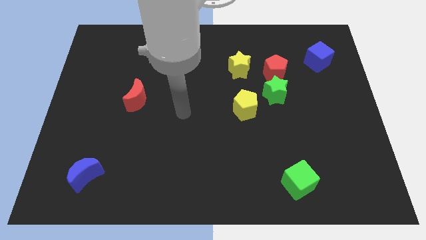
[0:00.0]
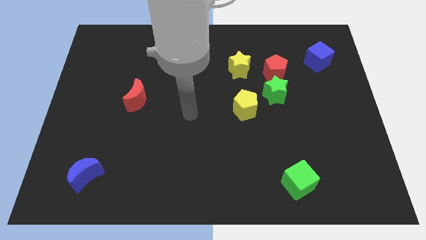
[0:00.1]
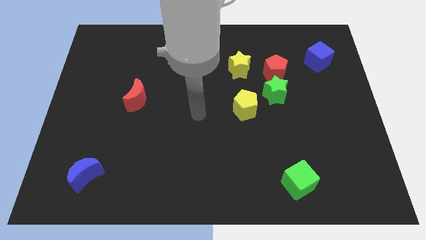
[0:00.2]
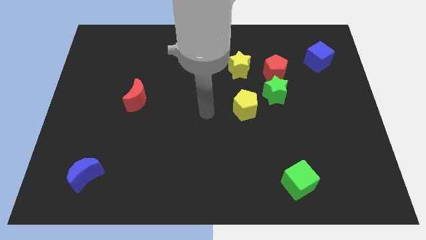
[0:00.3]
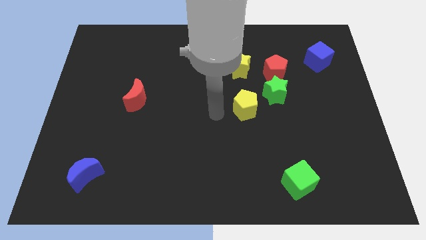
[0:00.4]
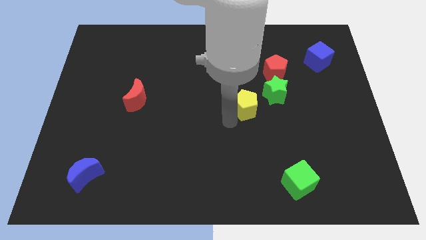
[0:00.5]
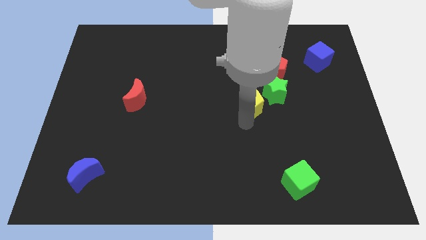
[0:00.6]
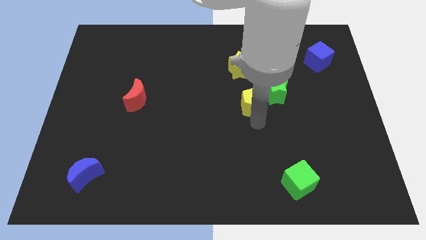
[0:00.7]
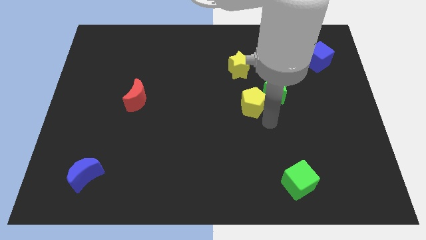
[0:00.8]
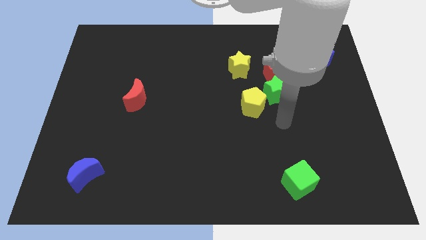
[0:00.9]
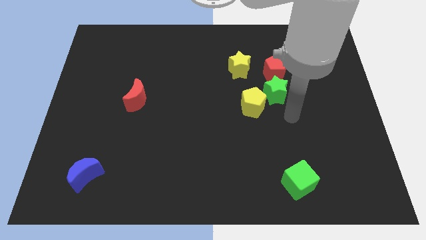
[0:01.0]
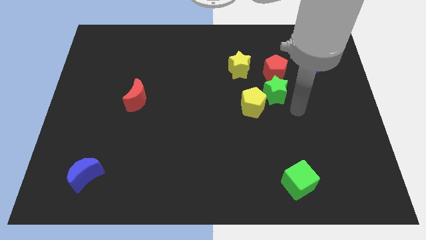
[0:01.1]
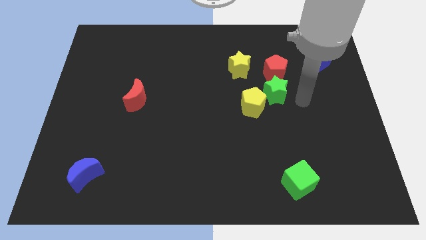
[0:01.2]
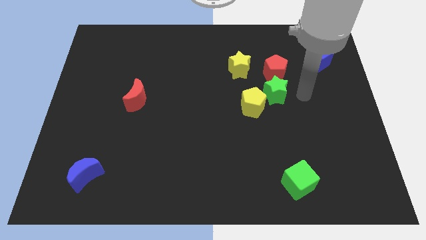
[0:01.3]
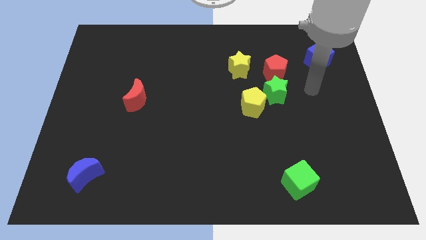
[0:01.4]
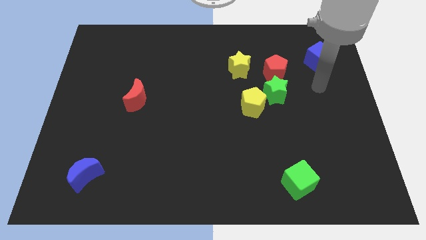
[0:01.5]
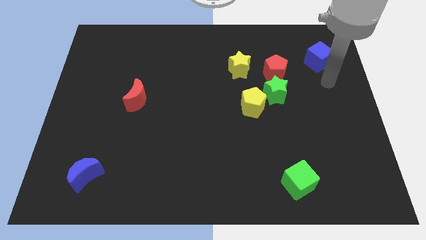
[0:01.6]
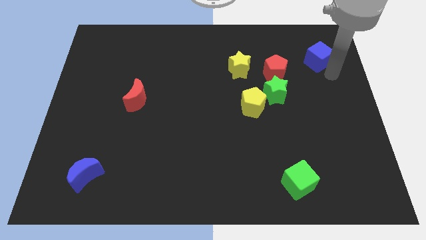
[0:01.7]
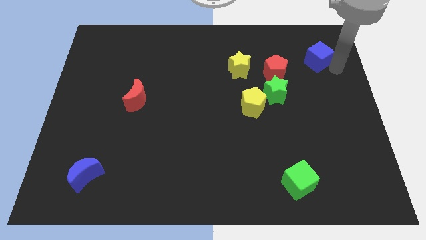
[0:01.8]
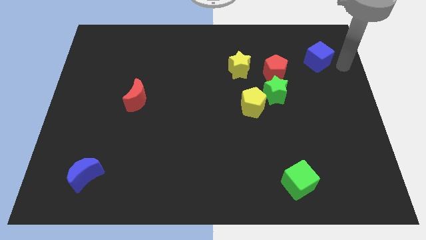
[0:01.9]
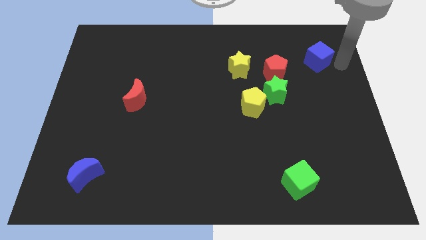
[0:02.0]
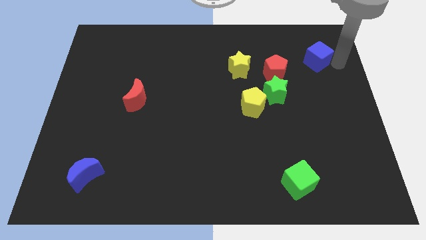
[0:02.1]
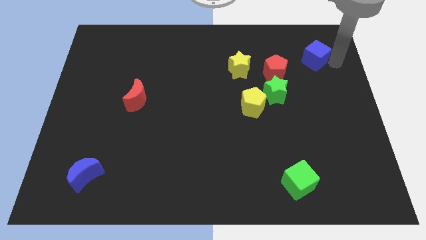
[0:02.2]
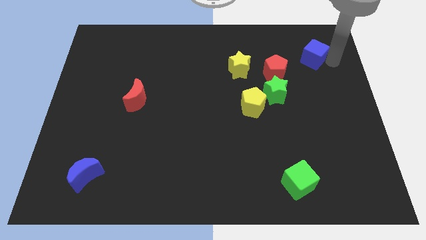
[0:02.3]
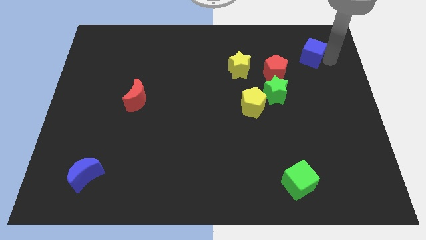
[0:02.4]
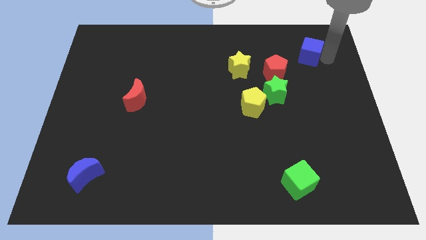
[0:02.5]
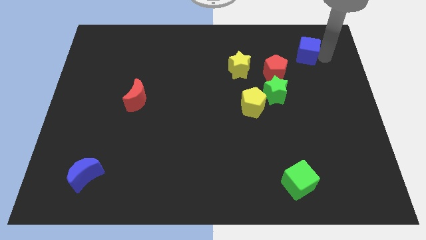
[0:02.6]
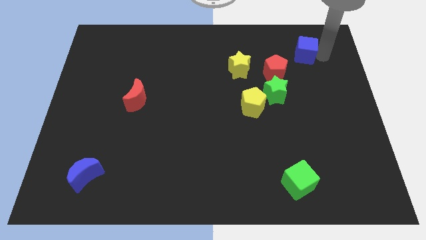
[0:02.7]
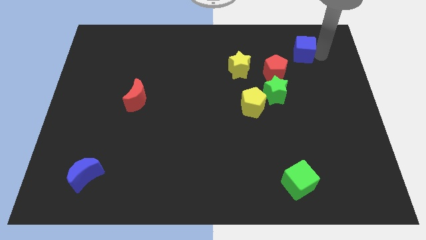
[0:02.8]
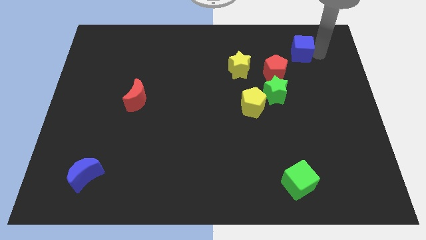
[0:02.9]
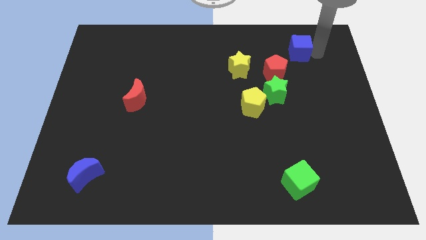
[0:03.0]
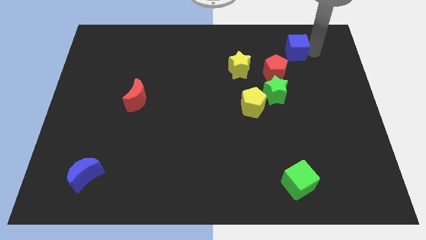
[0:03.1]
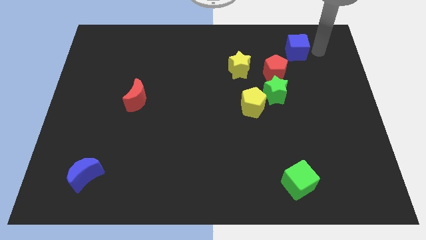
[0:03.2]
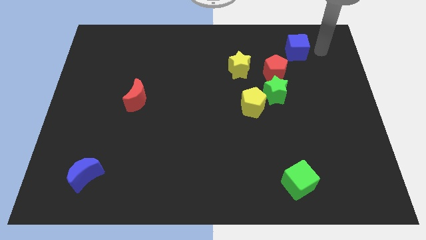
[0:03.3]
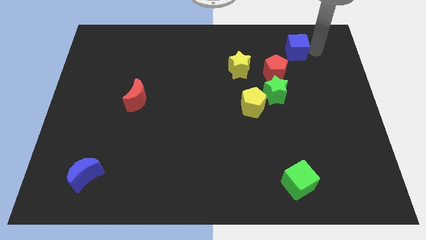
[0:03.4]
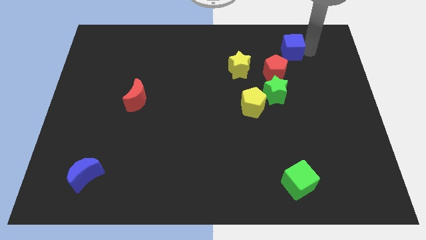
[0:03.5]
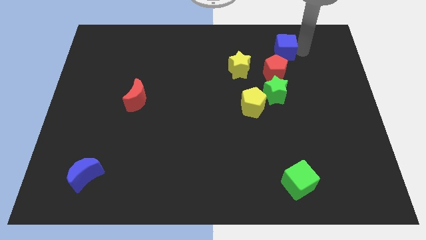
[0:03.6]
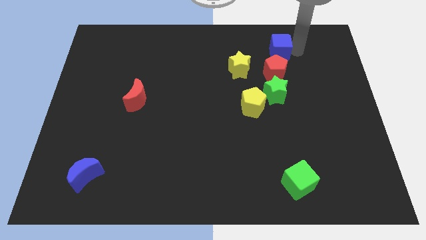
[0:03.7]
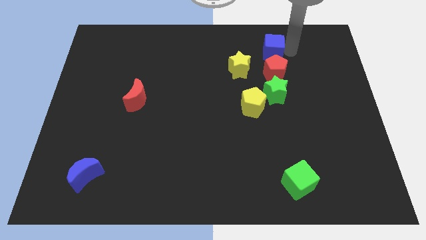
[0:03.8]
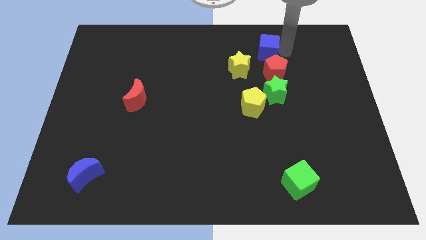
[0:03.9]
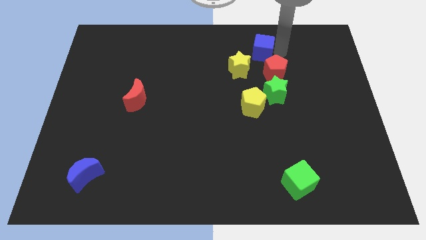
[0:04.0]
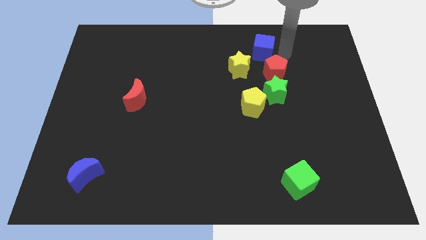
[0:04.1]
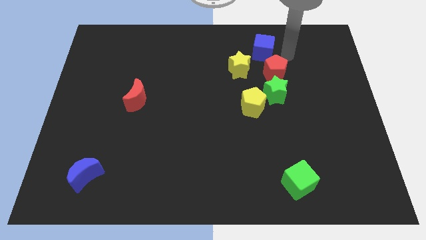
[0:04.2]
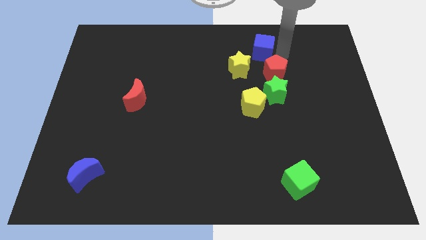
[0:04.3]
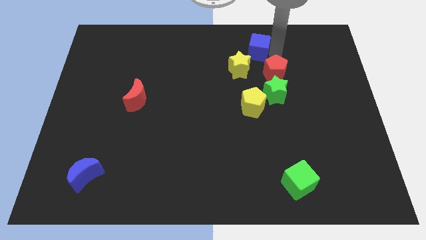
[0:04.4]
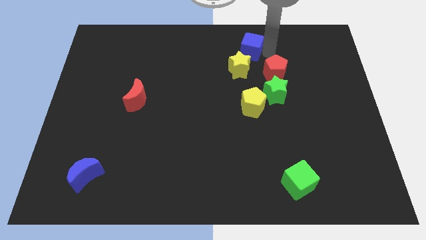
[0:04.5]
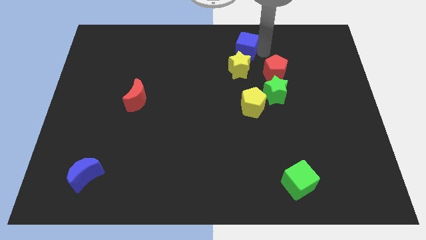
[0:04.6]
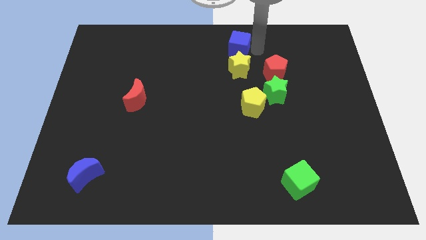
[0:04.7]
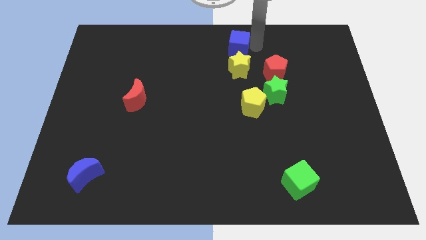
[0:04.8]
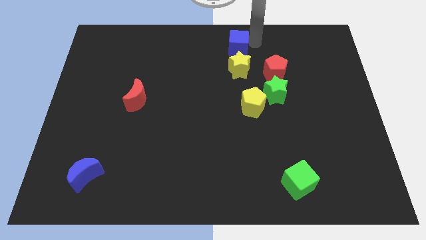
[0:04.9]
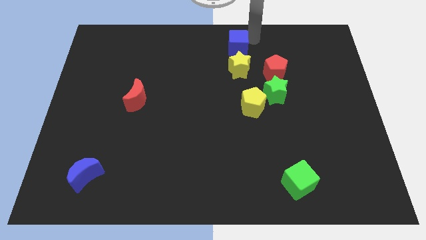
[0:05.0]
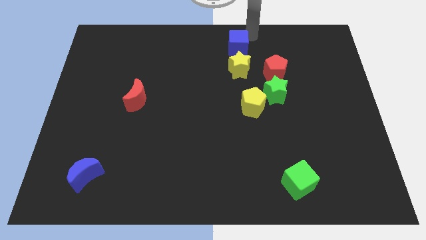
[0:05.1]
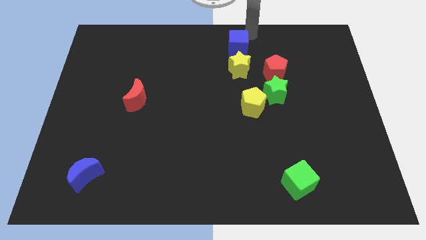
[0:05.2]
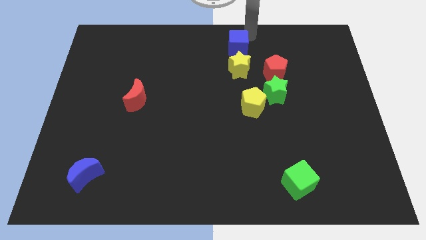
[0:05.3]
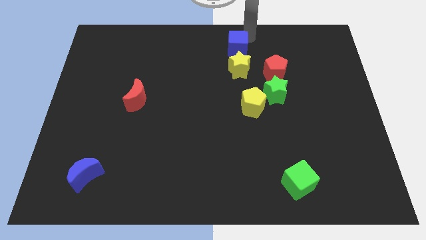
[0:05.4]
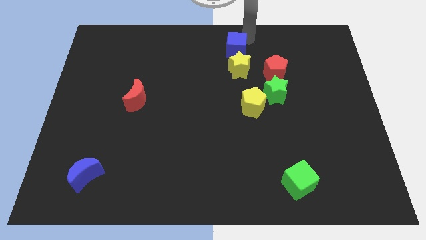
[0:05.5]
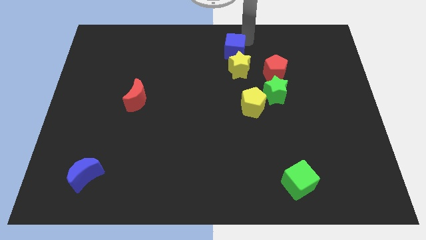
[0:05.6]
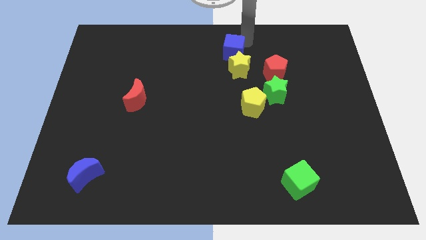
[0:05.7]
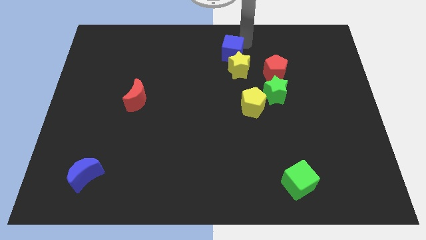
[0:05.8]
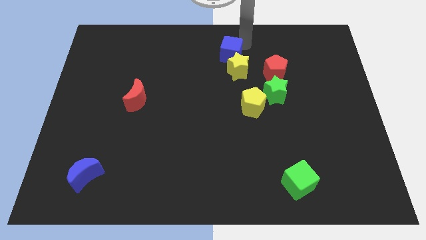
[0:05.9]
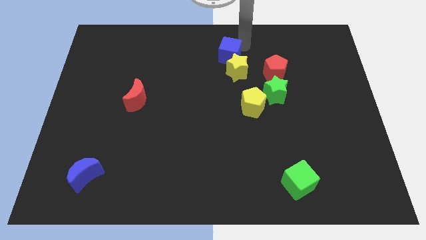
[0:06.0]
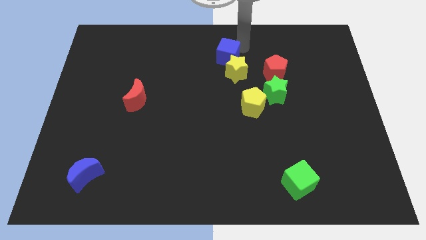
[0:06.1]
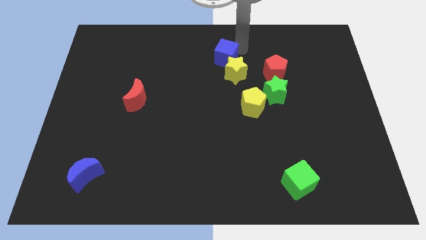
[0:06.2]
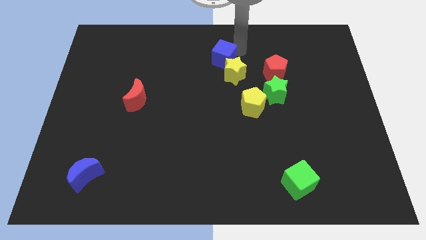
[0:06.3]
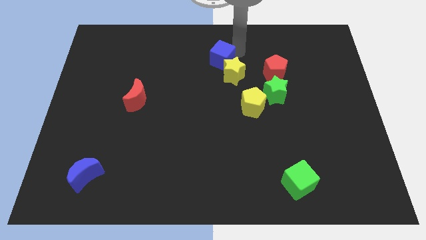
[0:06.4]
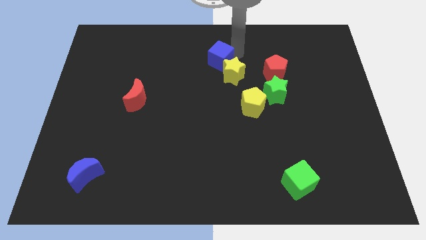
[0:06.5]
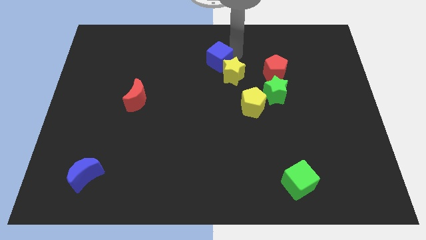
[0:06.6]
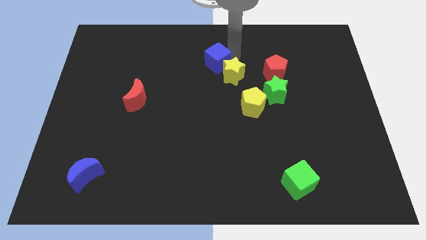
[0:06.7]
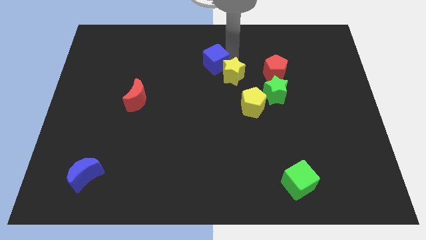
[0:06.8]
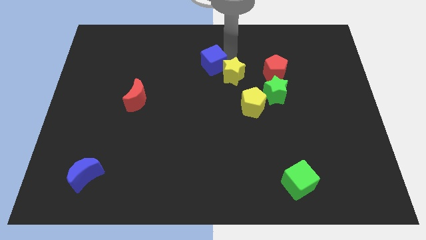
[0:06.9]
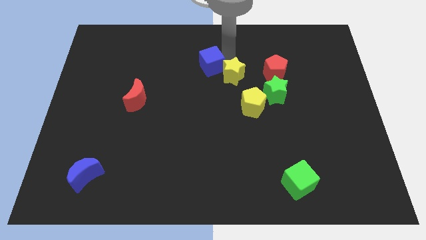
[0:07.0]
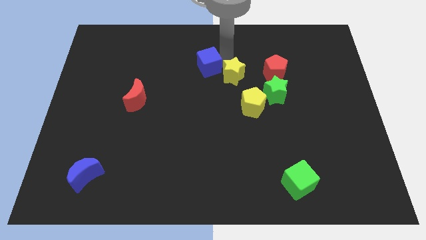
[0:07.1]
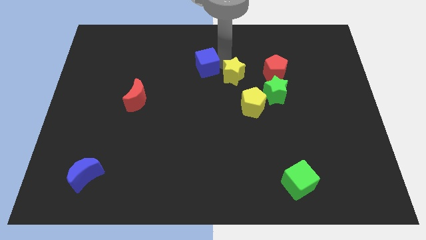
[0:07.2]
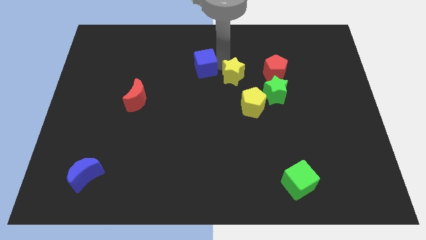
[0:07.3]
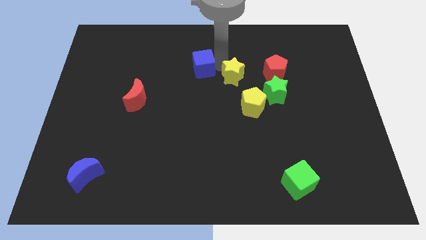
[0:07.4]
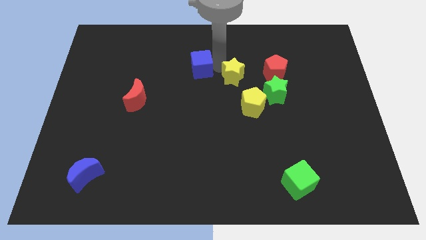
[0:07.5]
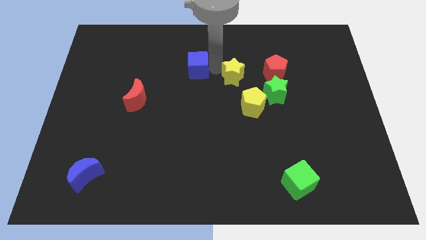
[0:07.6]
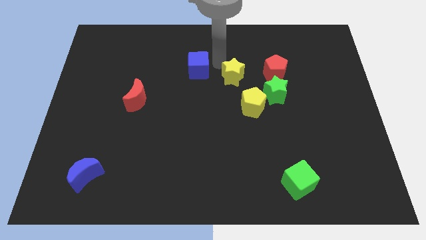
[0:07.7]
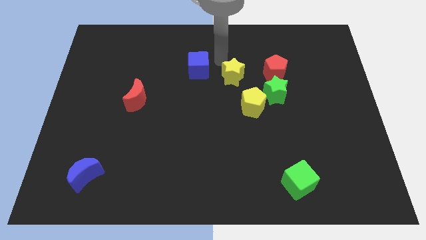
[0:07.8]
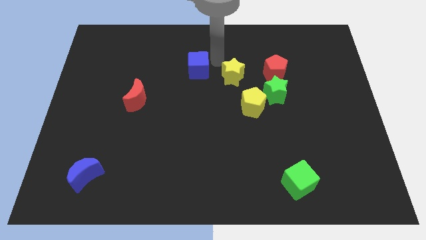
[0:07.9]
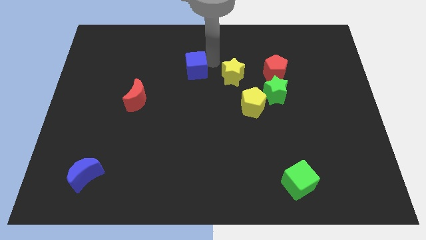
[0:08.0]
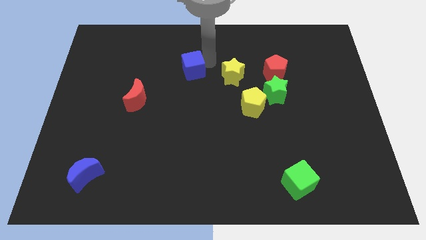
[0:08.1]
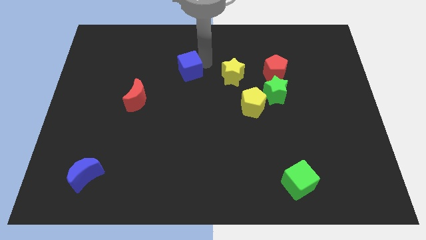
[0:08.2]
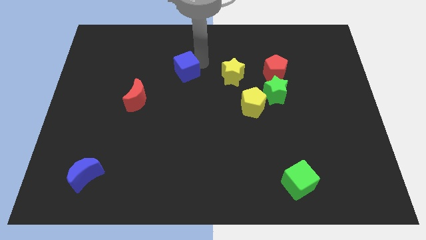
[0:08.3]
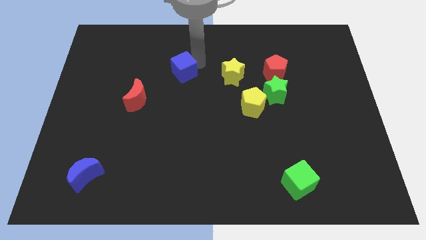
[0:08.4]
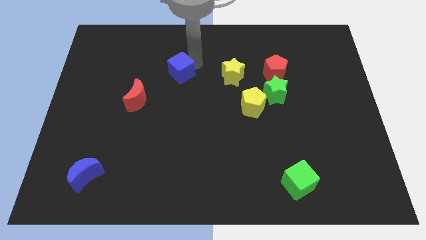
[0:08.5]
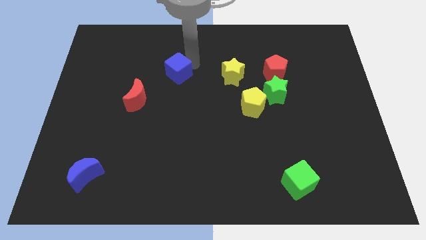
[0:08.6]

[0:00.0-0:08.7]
move the blue cube to the top right side of the red moon
